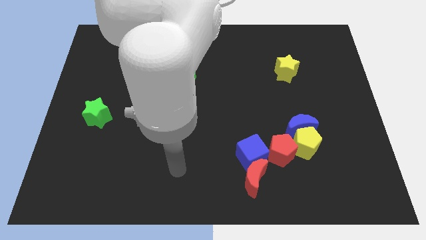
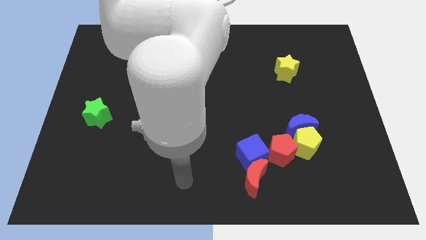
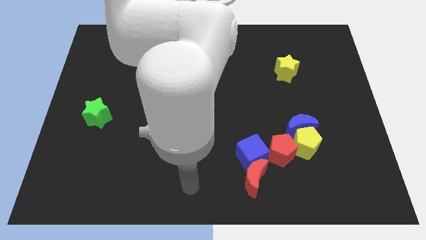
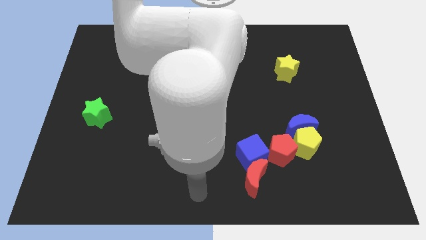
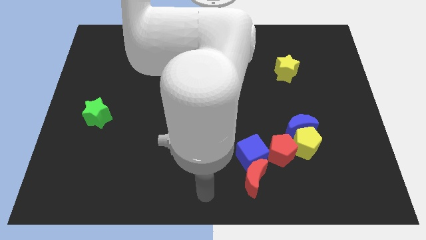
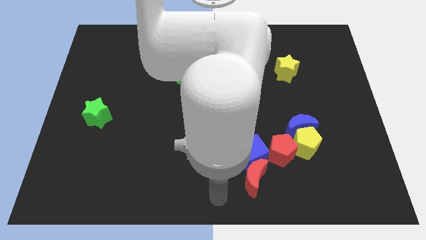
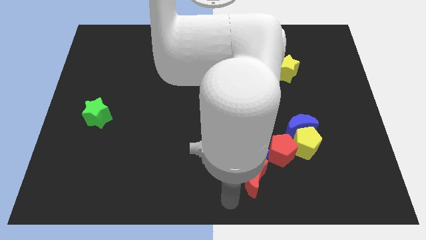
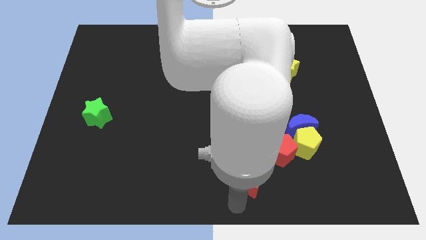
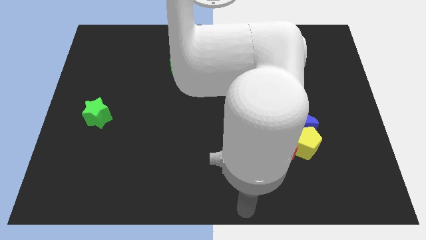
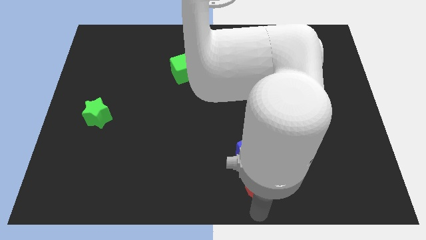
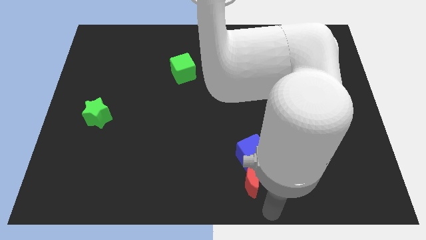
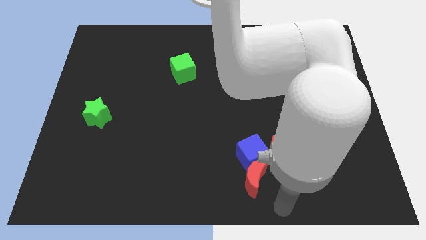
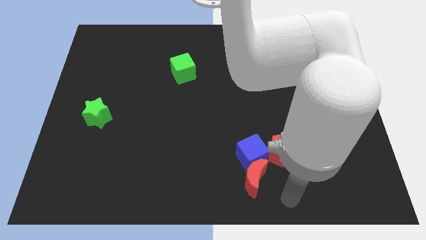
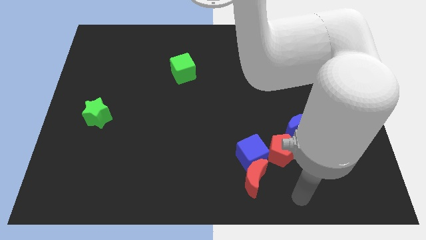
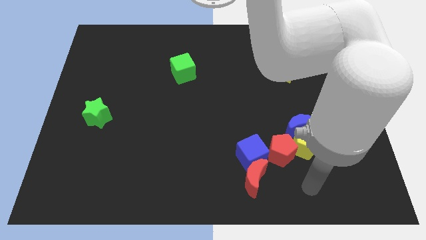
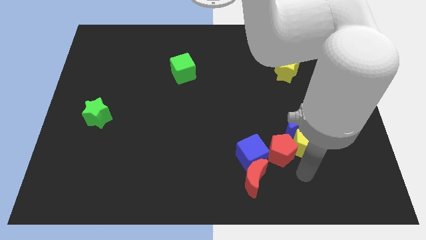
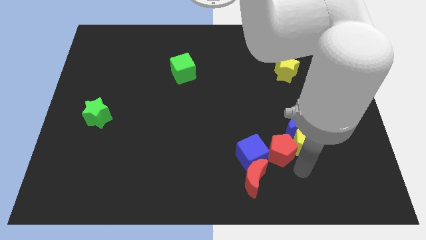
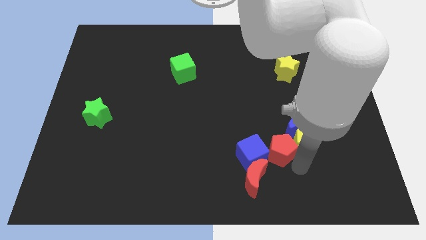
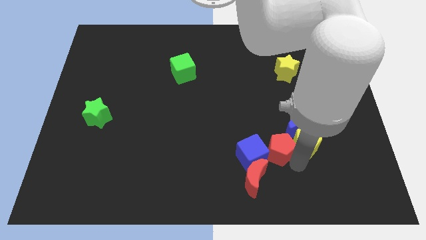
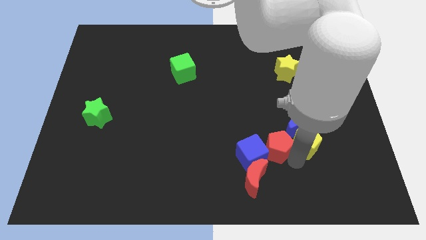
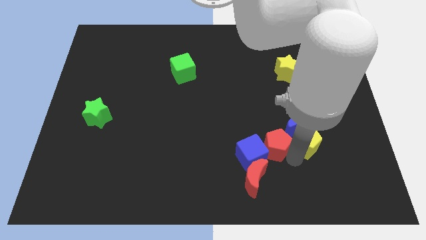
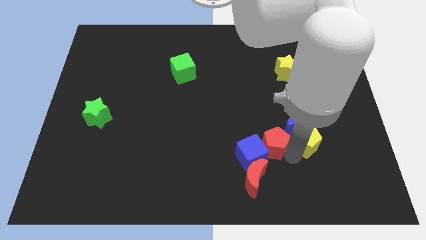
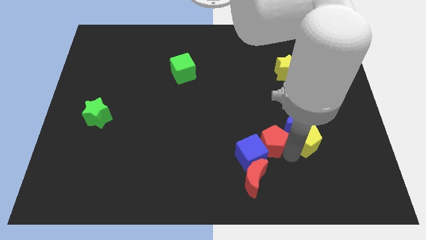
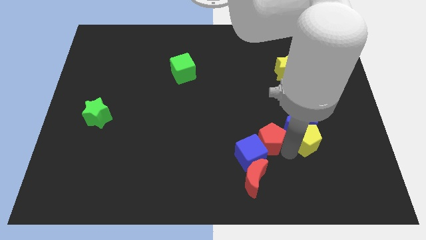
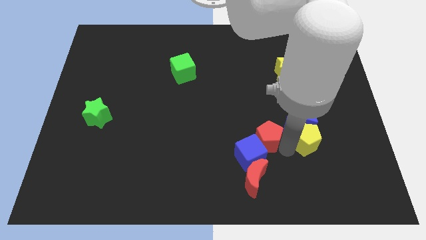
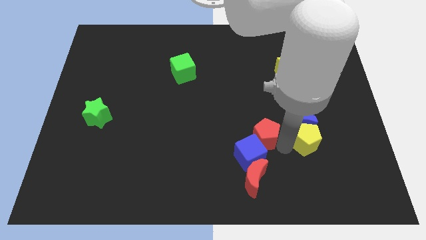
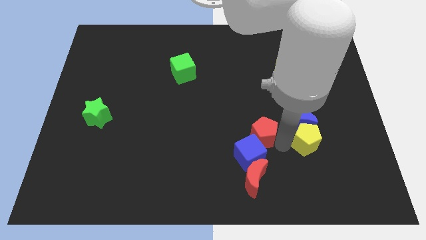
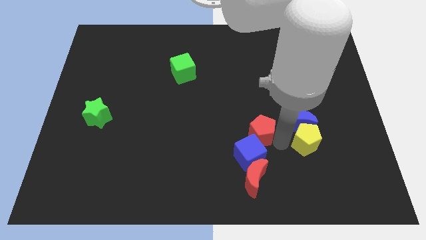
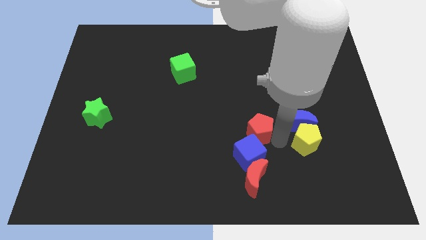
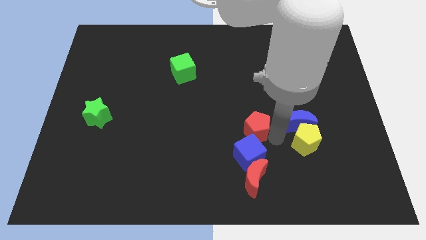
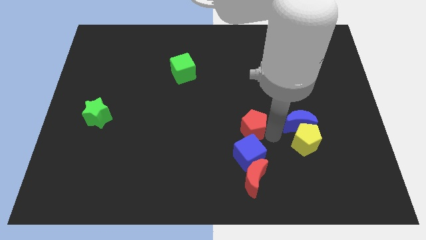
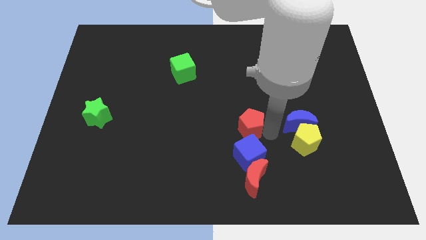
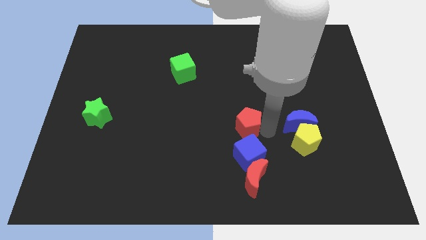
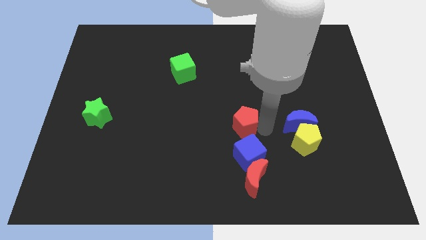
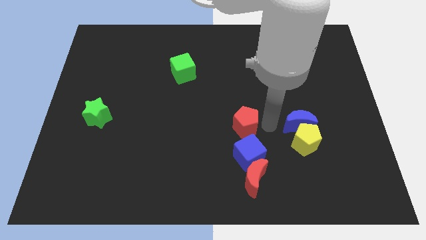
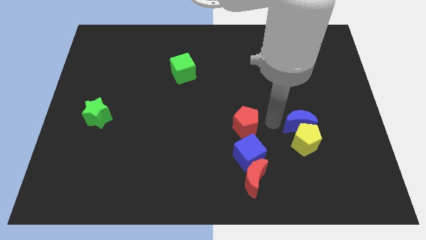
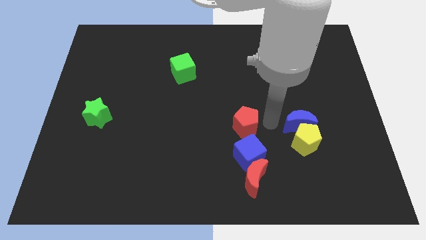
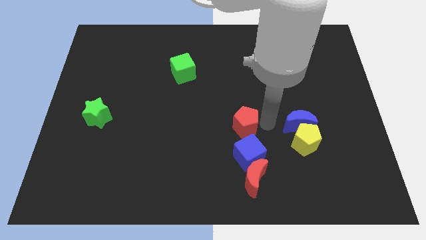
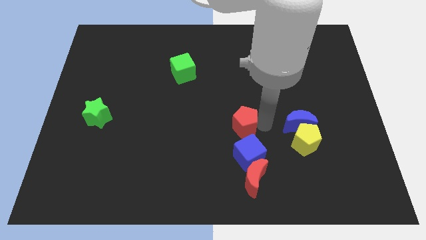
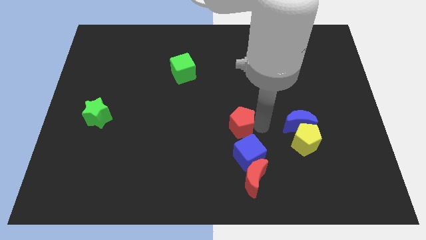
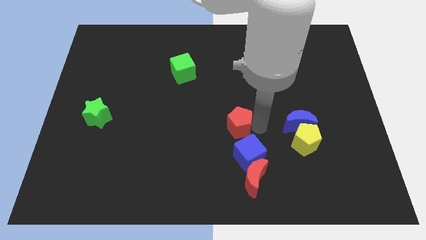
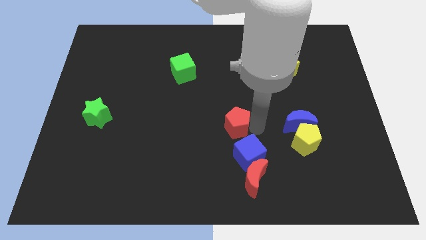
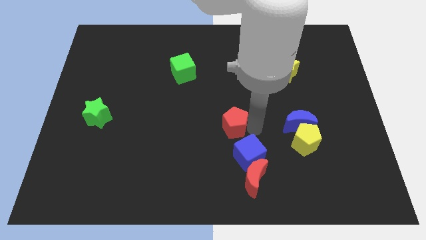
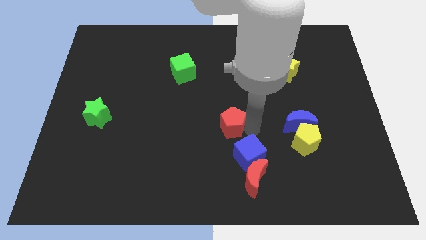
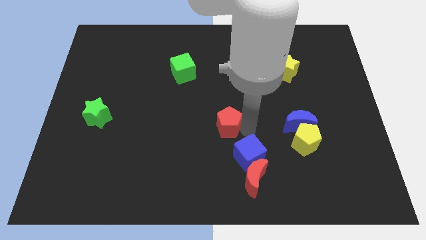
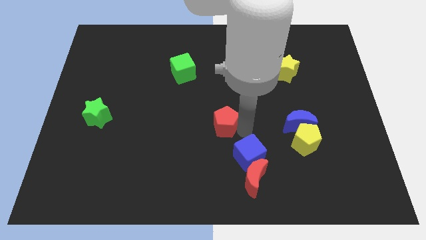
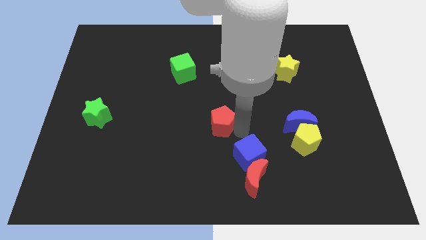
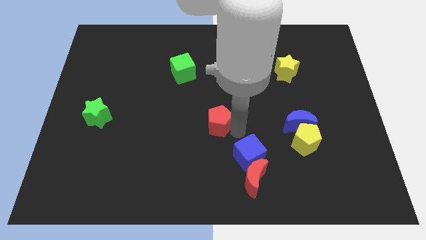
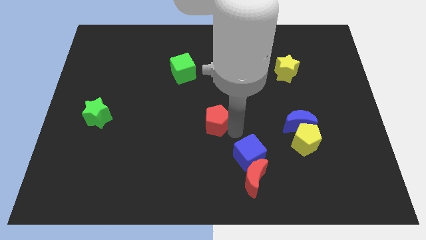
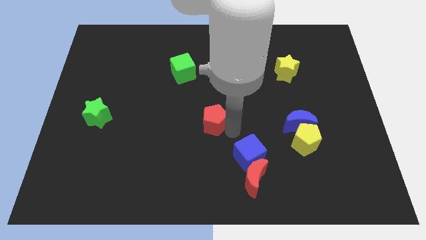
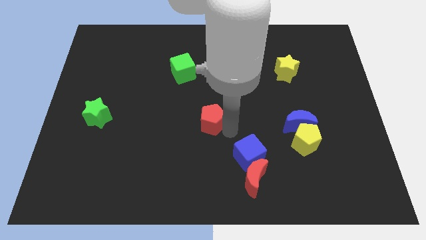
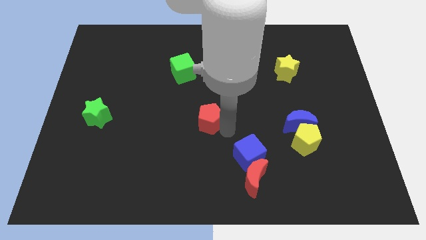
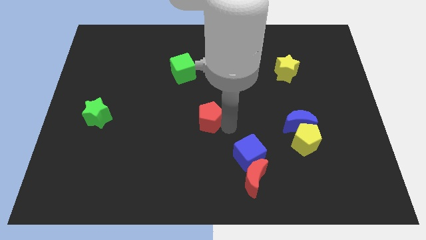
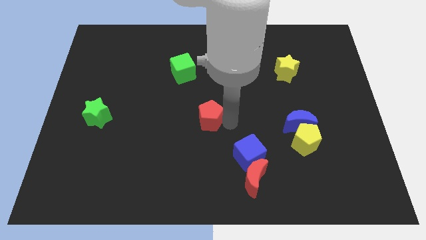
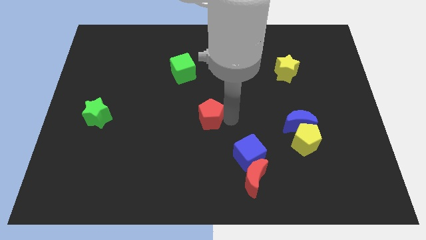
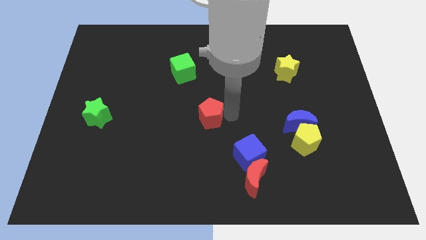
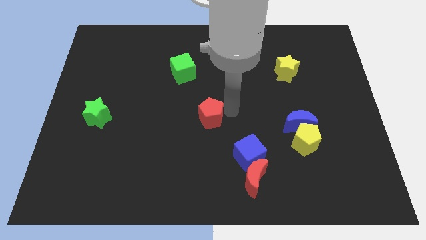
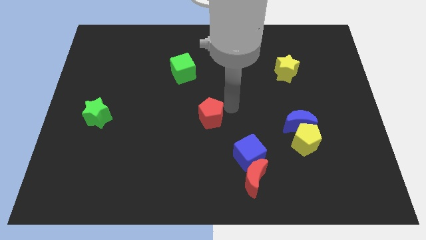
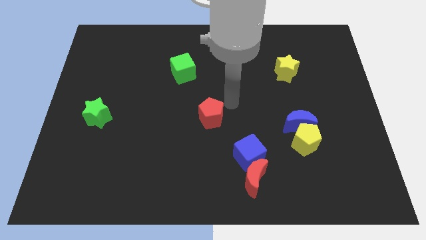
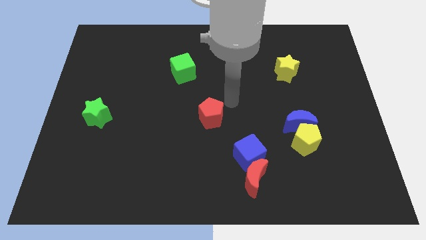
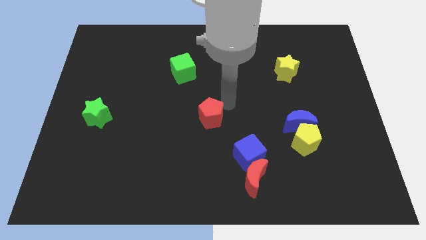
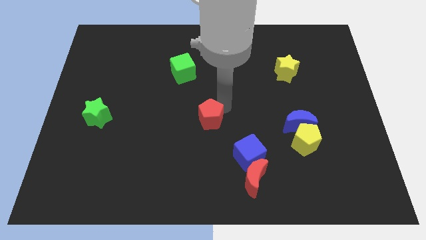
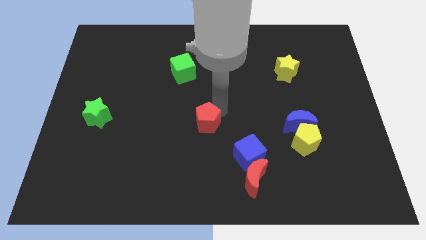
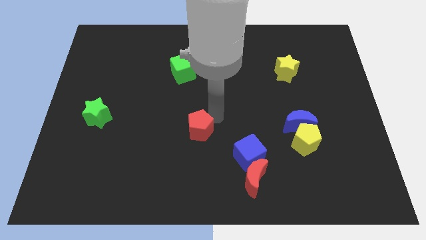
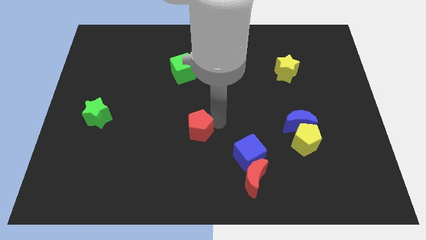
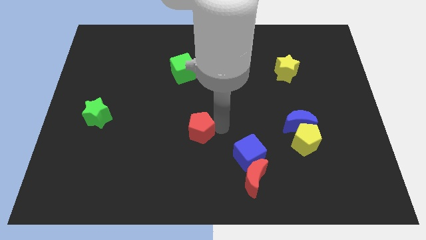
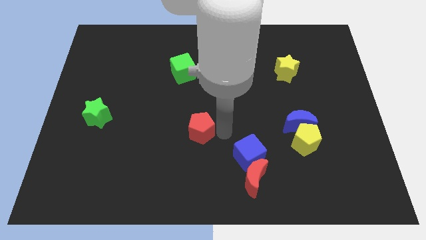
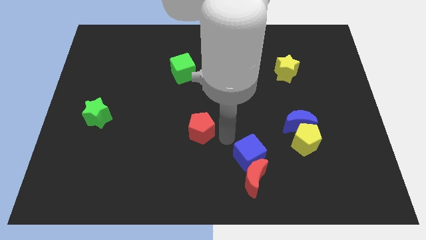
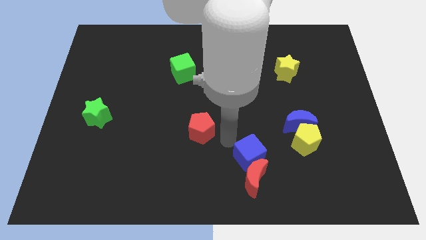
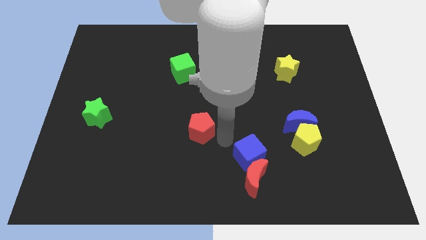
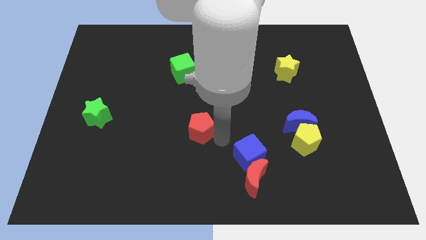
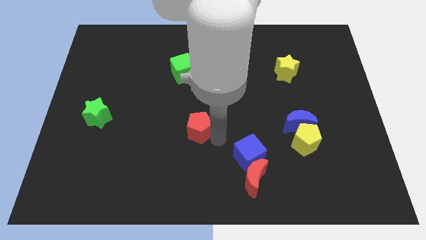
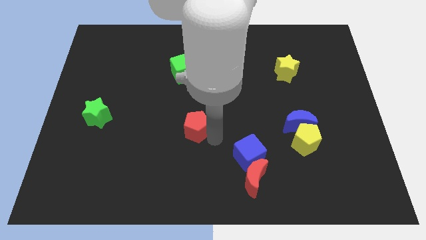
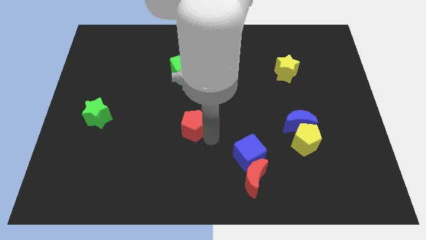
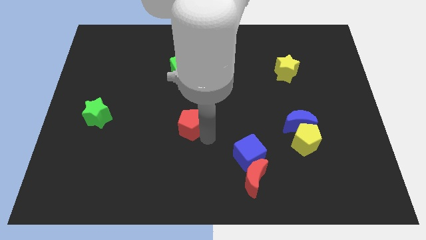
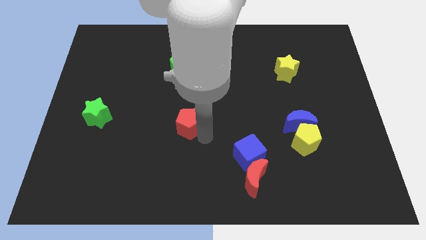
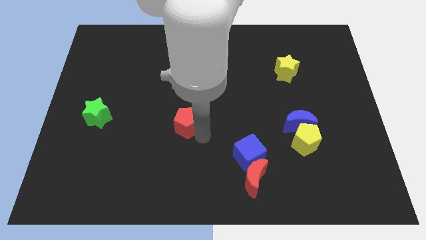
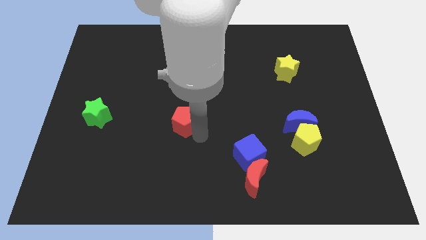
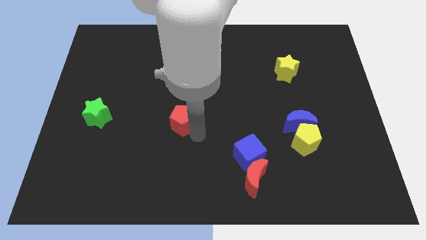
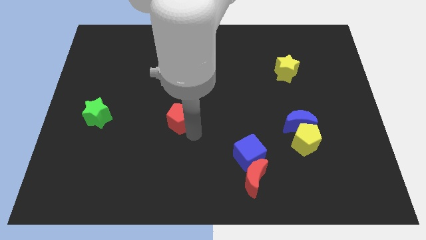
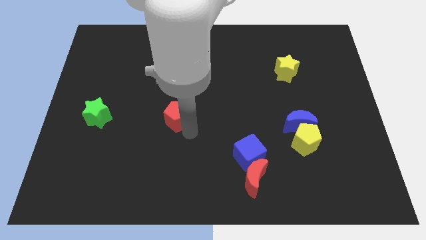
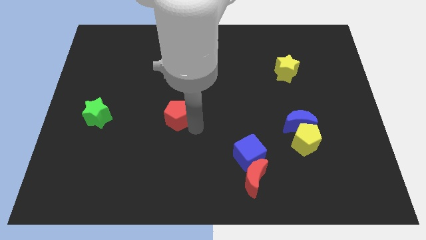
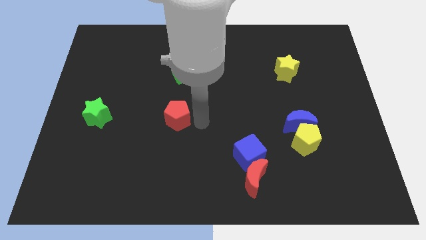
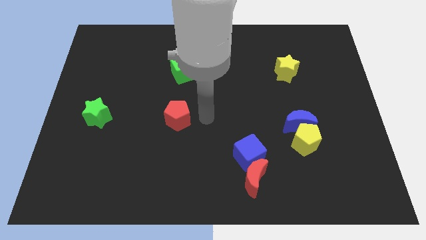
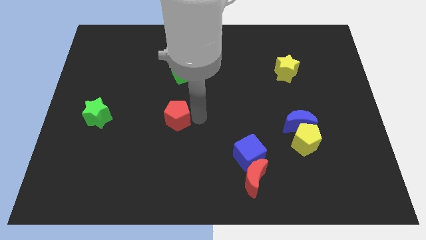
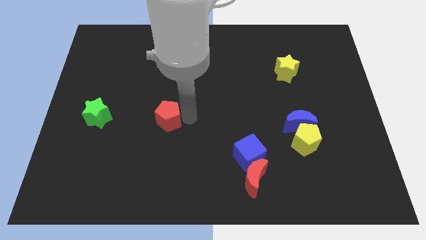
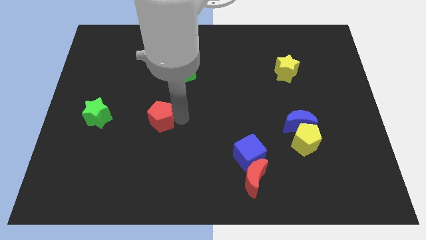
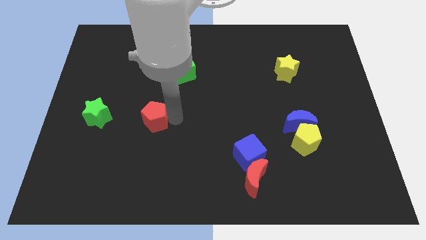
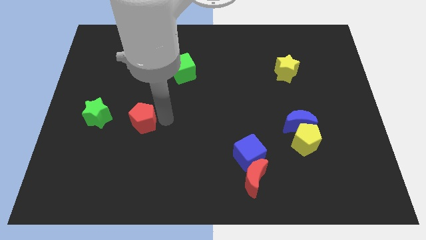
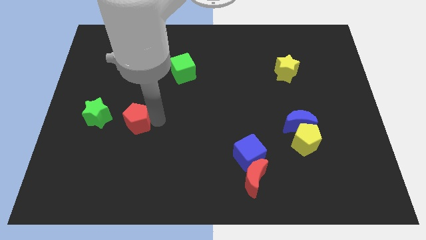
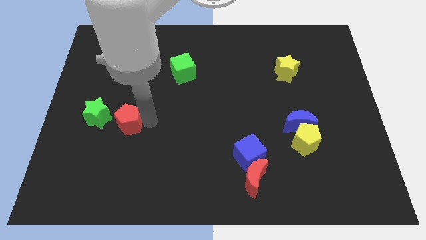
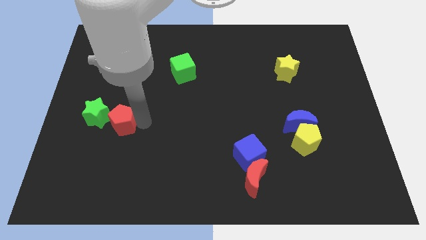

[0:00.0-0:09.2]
slide the red pentagon to the green star
